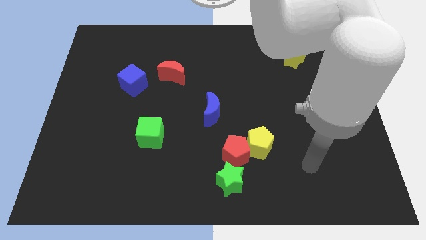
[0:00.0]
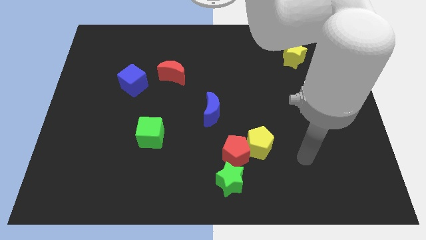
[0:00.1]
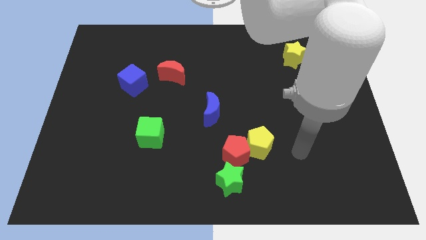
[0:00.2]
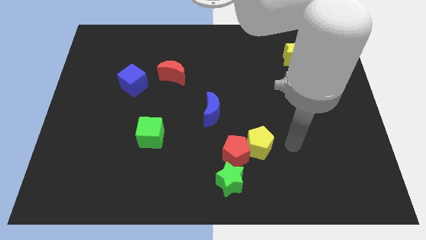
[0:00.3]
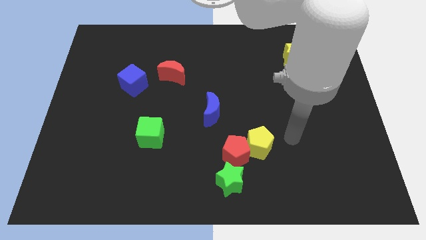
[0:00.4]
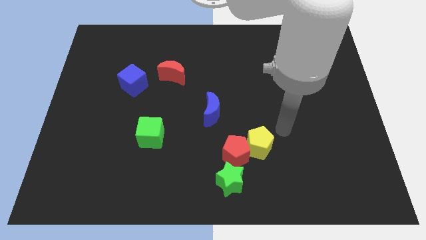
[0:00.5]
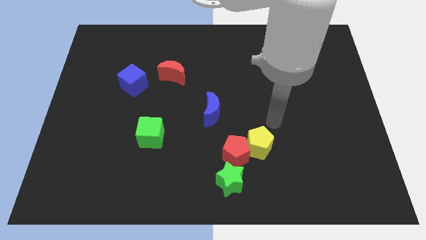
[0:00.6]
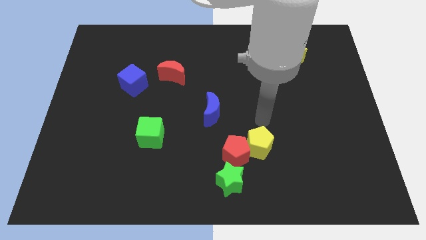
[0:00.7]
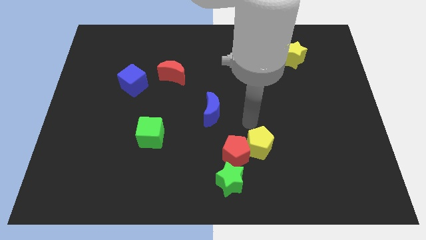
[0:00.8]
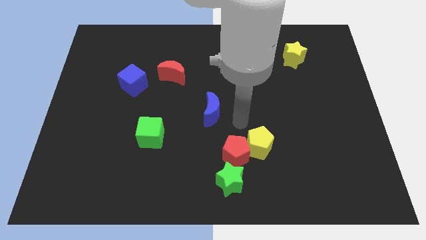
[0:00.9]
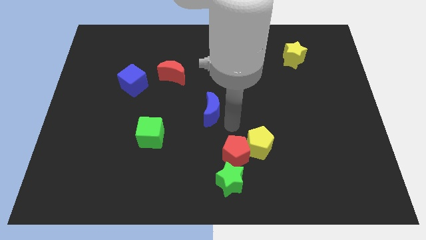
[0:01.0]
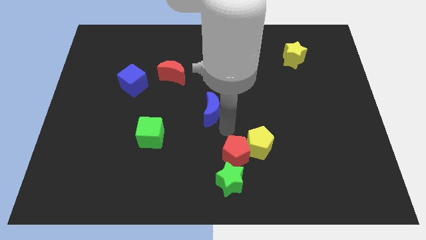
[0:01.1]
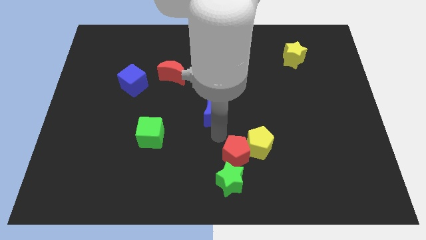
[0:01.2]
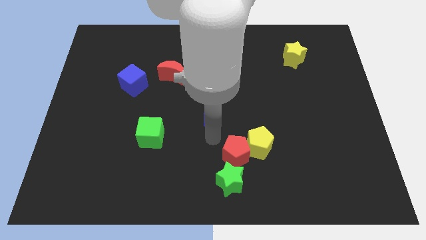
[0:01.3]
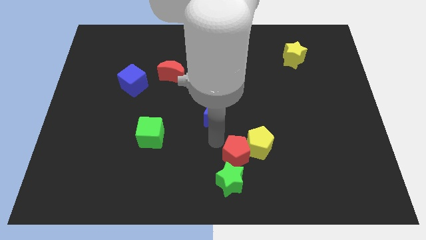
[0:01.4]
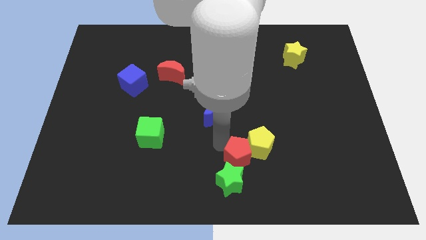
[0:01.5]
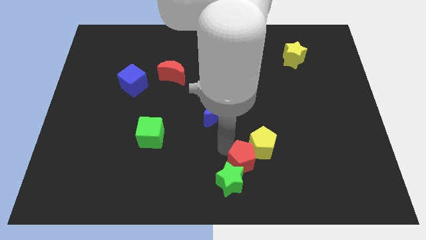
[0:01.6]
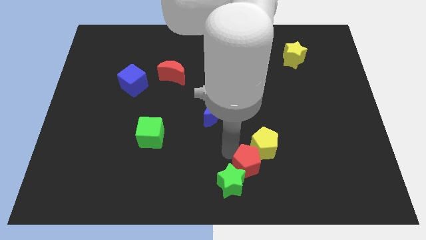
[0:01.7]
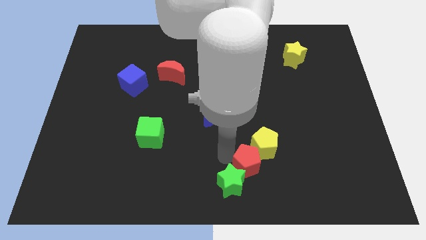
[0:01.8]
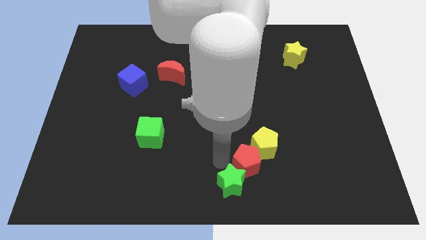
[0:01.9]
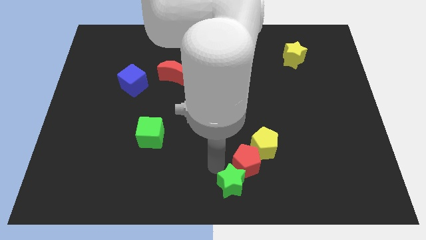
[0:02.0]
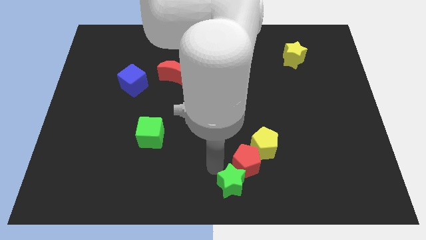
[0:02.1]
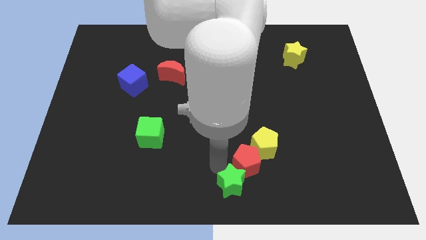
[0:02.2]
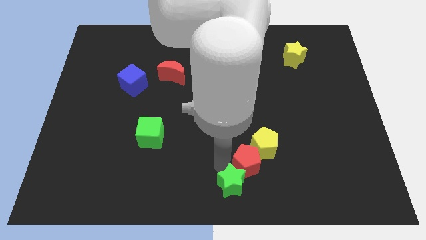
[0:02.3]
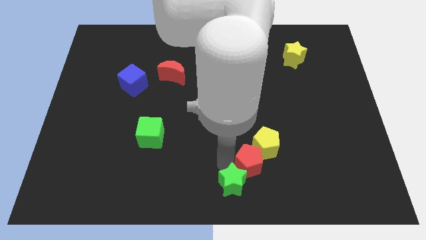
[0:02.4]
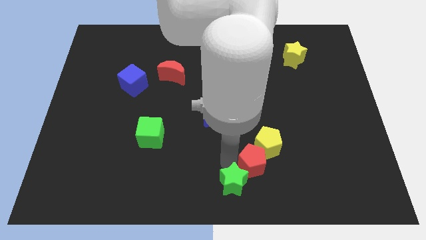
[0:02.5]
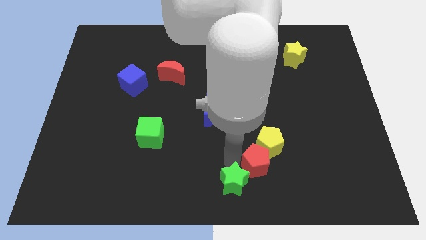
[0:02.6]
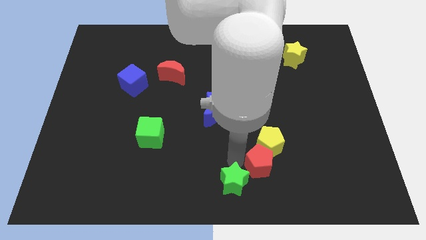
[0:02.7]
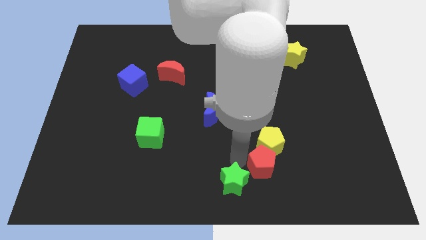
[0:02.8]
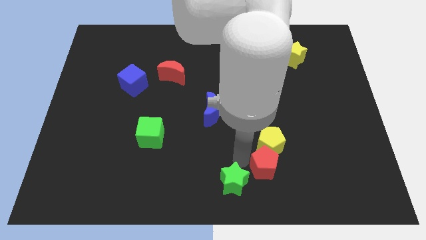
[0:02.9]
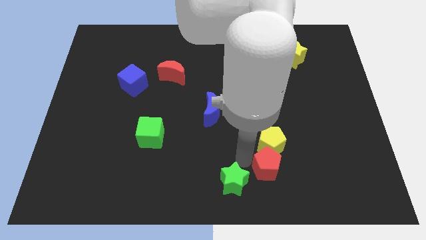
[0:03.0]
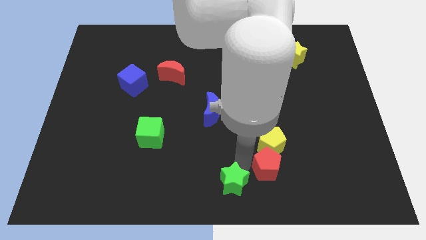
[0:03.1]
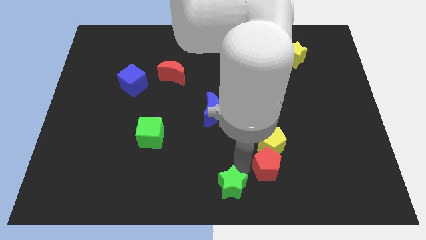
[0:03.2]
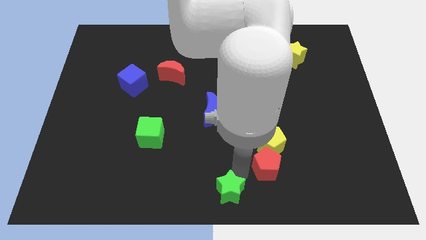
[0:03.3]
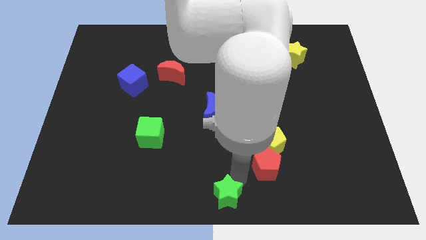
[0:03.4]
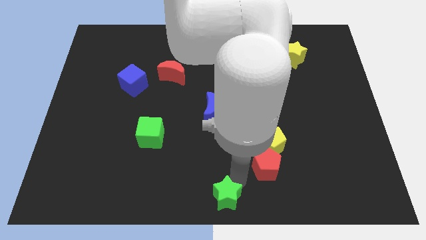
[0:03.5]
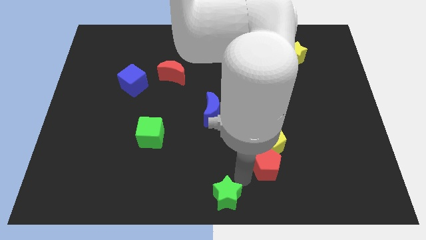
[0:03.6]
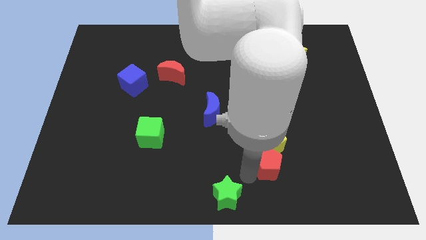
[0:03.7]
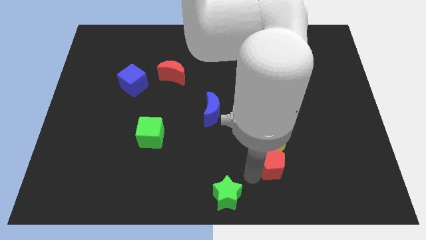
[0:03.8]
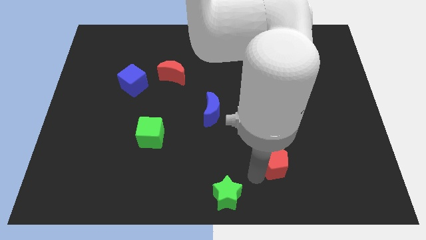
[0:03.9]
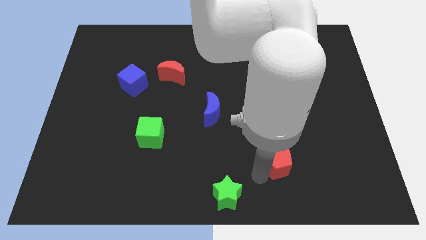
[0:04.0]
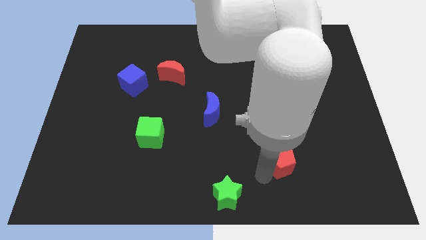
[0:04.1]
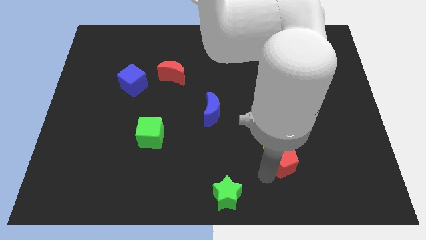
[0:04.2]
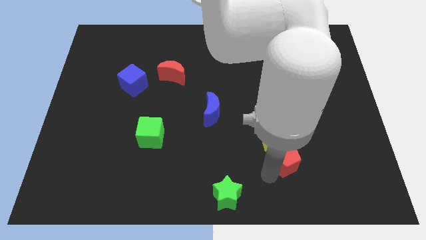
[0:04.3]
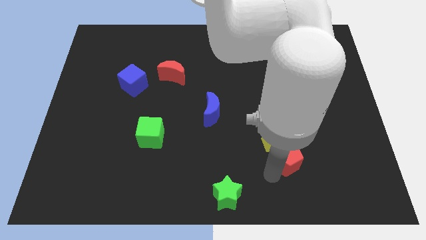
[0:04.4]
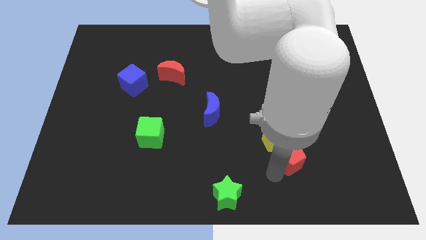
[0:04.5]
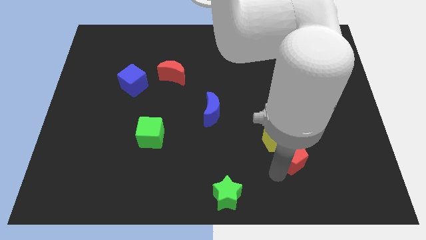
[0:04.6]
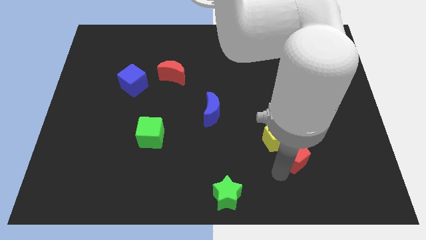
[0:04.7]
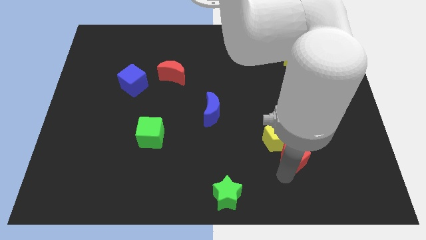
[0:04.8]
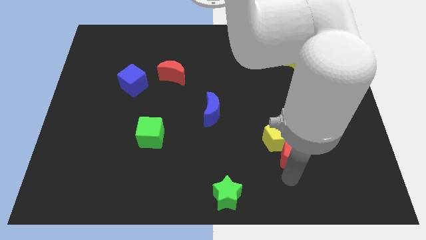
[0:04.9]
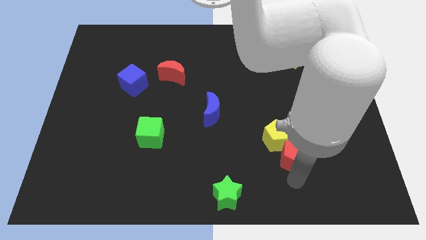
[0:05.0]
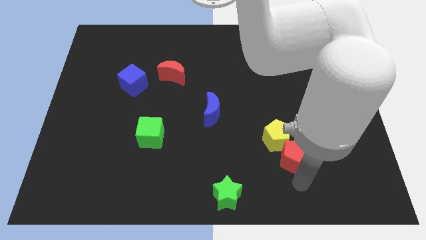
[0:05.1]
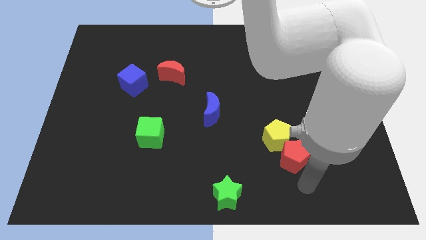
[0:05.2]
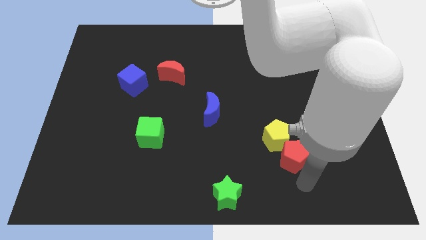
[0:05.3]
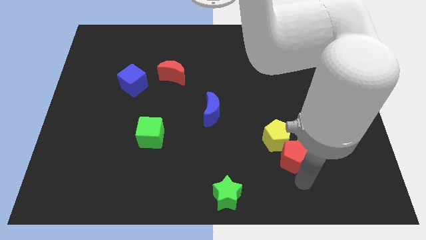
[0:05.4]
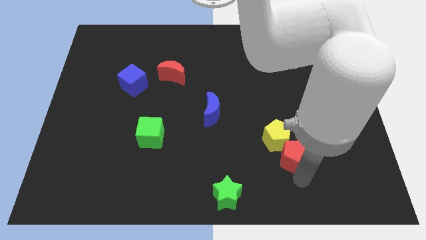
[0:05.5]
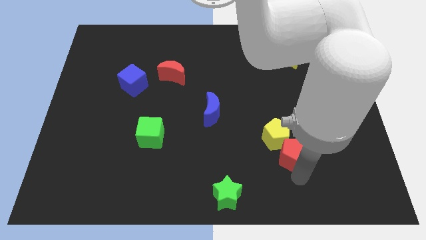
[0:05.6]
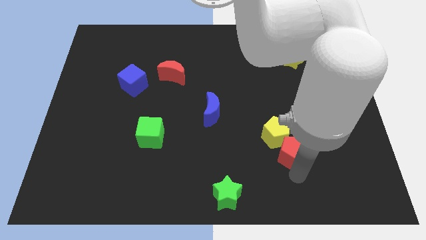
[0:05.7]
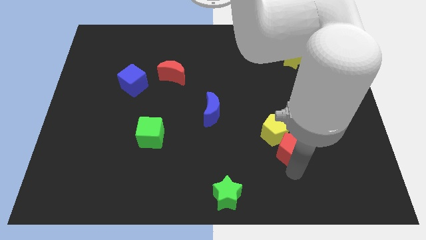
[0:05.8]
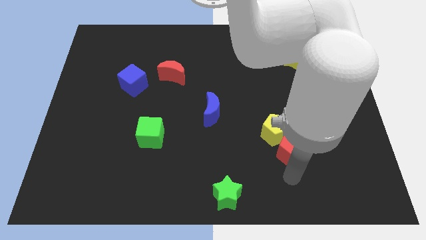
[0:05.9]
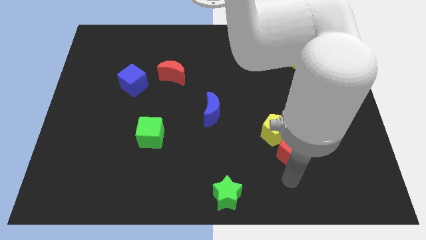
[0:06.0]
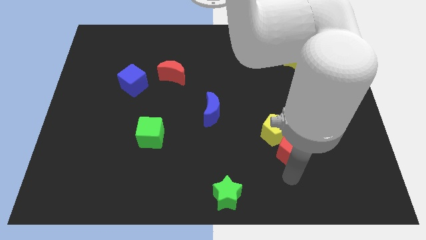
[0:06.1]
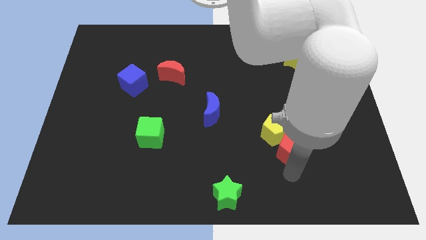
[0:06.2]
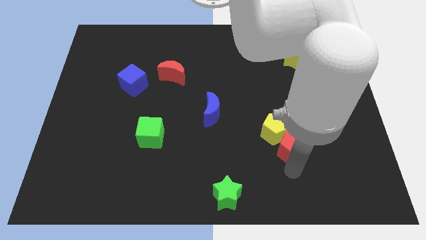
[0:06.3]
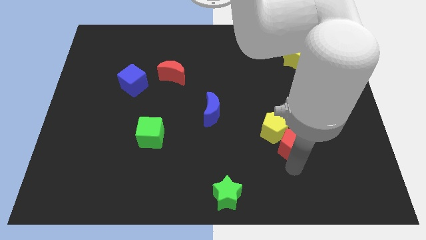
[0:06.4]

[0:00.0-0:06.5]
slightly move the red pentagon up and to the right diagonally

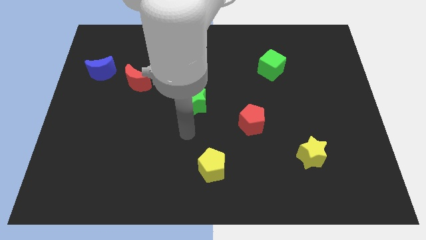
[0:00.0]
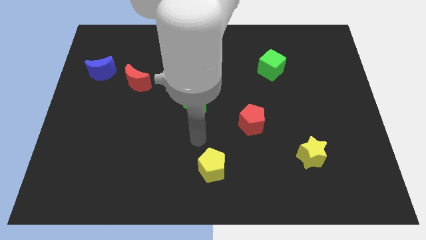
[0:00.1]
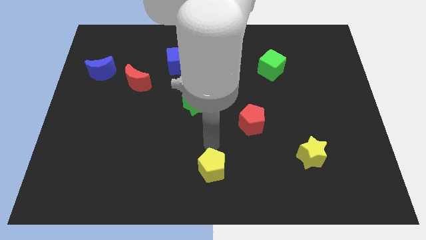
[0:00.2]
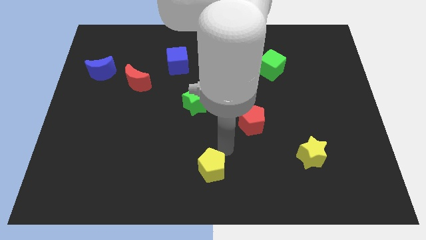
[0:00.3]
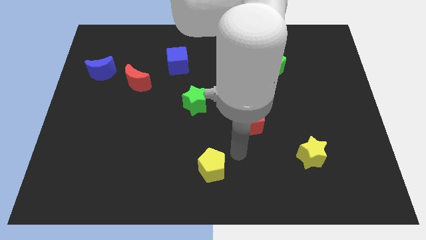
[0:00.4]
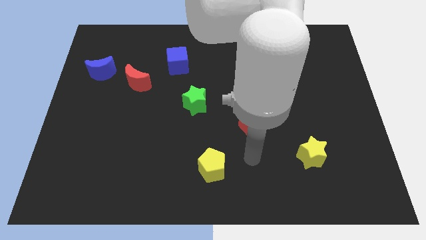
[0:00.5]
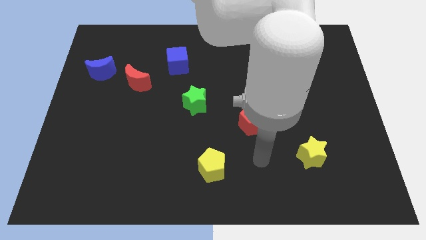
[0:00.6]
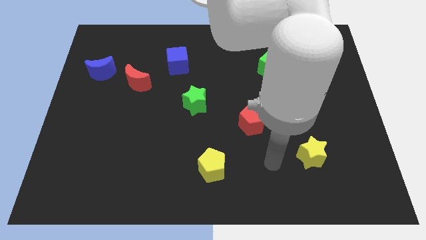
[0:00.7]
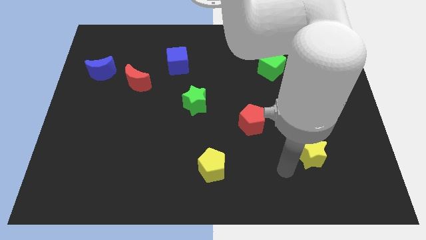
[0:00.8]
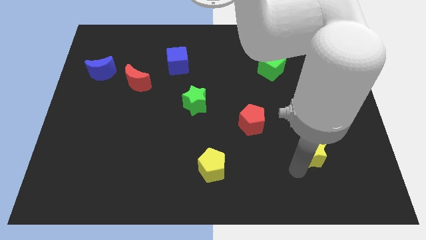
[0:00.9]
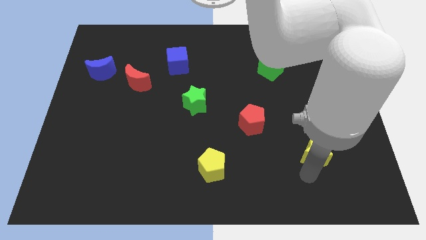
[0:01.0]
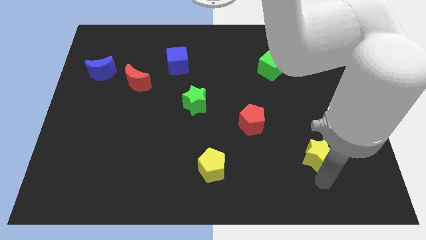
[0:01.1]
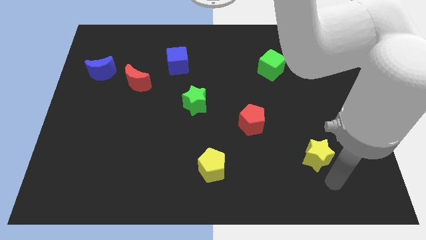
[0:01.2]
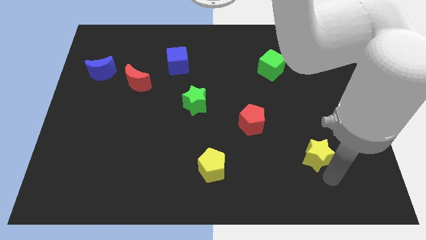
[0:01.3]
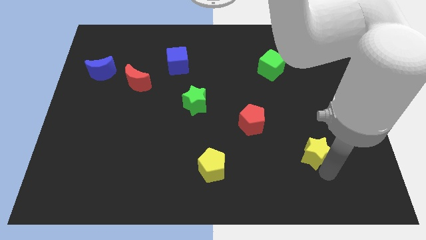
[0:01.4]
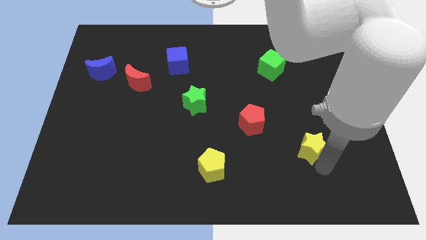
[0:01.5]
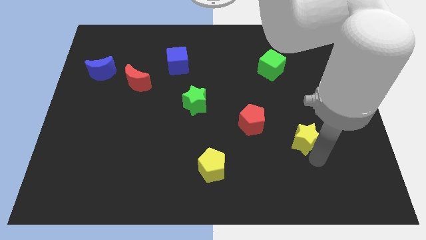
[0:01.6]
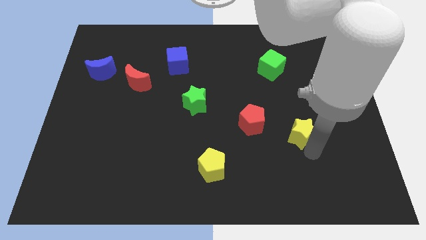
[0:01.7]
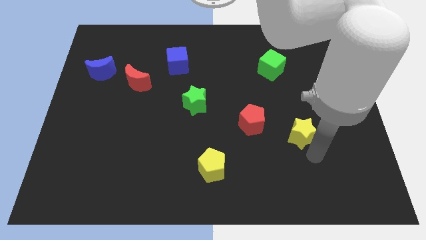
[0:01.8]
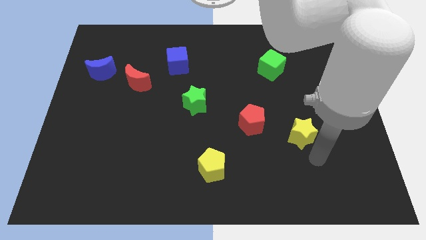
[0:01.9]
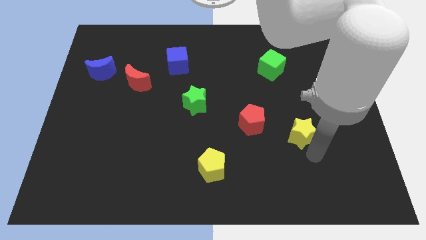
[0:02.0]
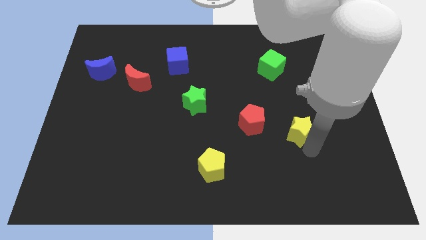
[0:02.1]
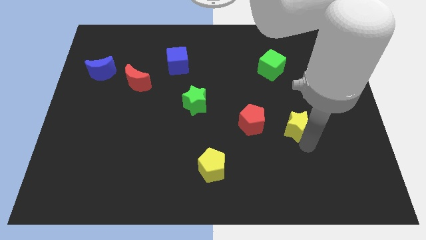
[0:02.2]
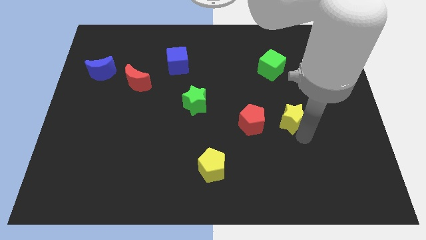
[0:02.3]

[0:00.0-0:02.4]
push the yellow star up and then left slightly
